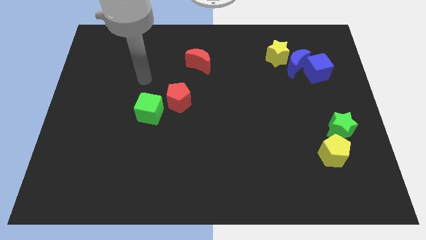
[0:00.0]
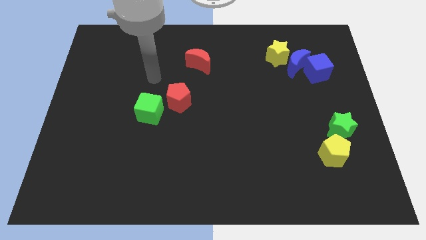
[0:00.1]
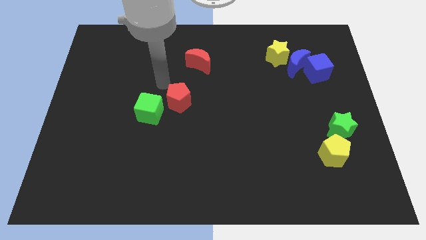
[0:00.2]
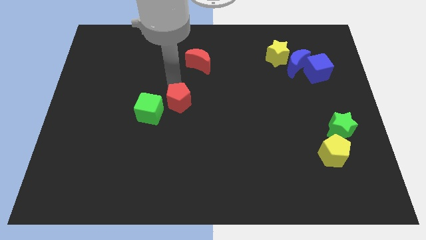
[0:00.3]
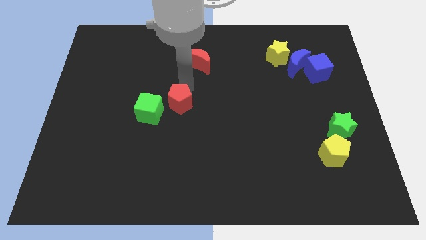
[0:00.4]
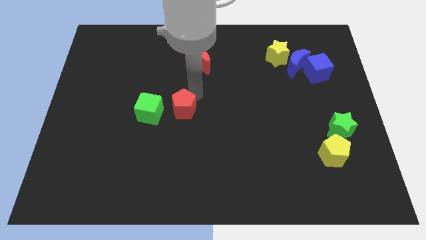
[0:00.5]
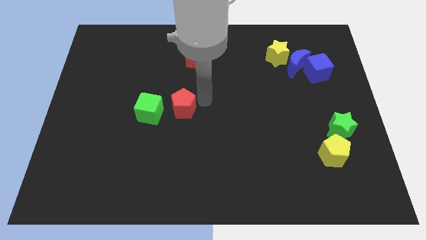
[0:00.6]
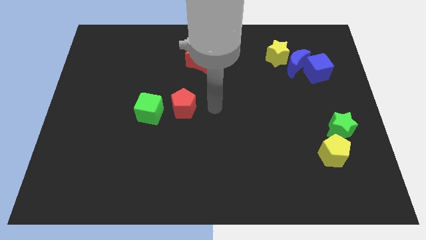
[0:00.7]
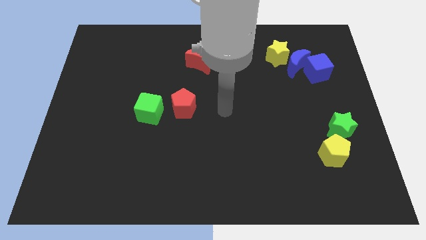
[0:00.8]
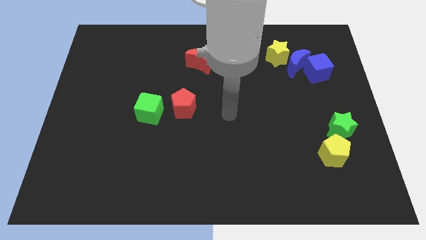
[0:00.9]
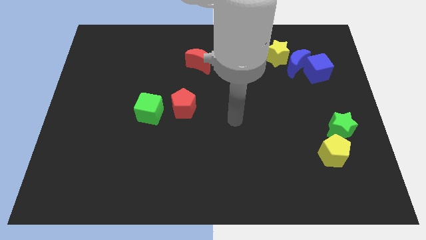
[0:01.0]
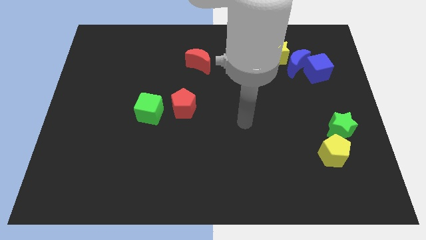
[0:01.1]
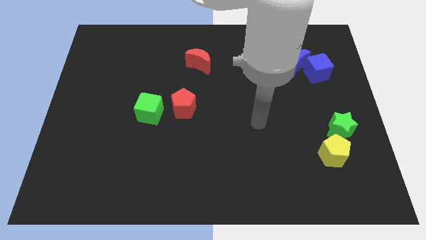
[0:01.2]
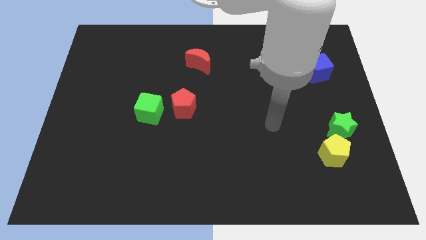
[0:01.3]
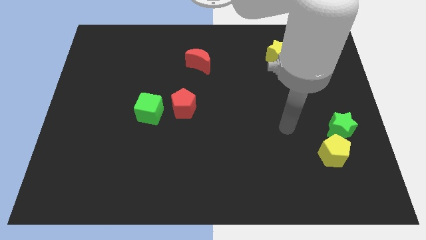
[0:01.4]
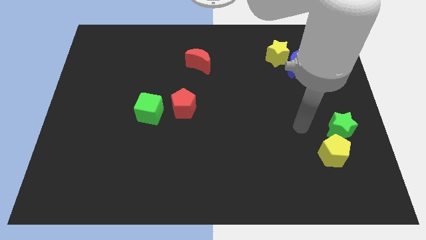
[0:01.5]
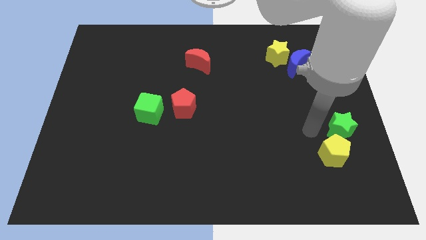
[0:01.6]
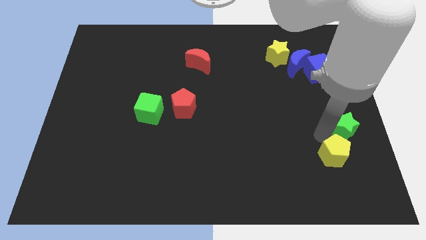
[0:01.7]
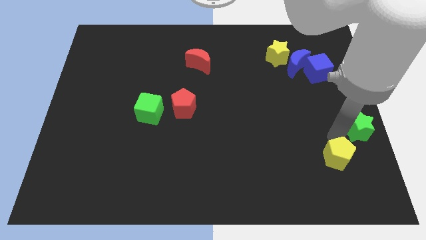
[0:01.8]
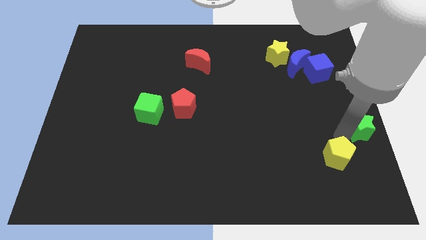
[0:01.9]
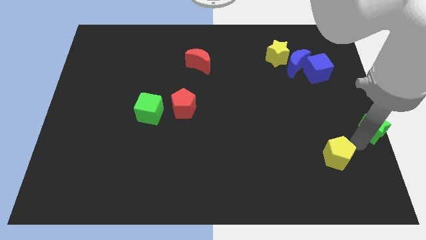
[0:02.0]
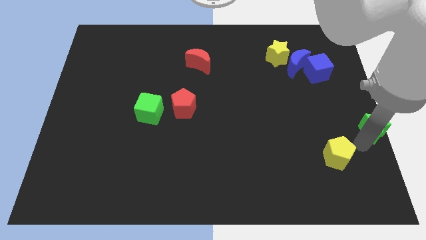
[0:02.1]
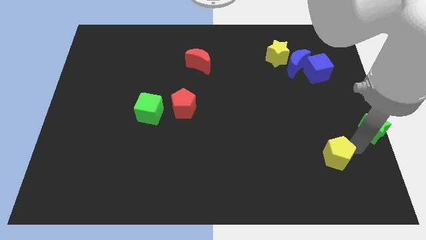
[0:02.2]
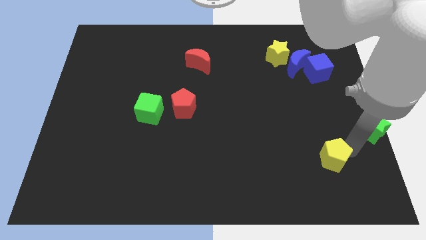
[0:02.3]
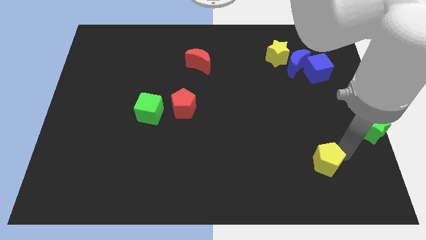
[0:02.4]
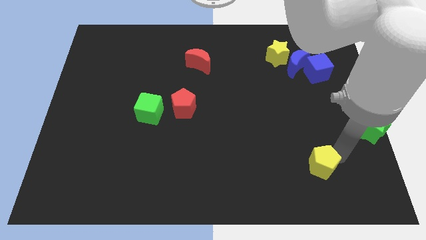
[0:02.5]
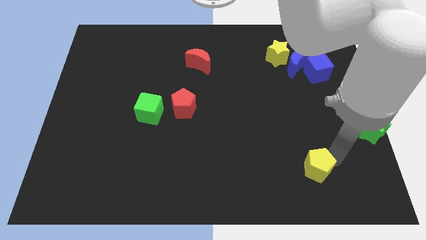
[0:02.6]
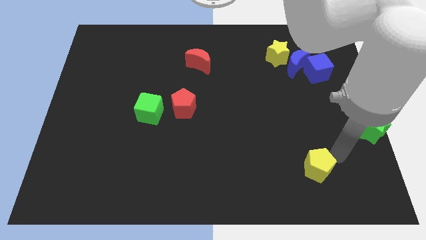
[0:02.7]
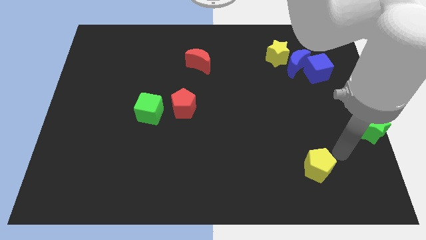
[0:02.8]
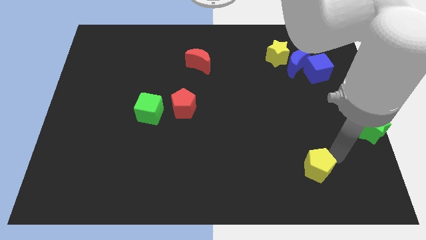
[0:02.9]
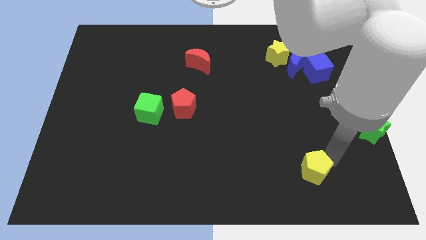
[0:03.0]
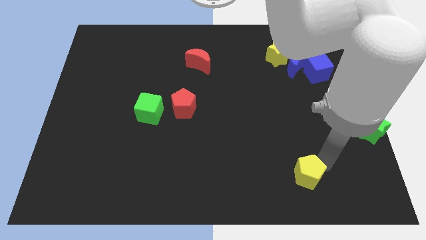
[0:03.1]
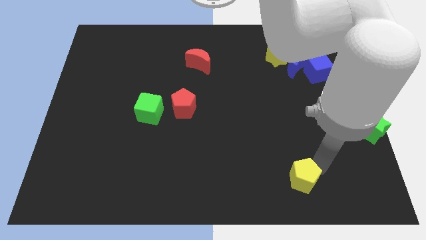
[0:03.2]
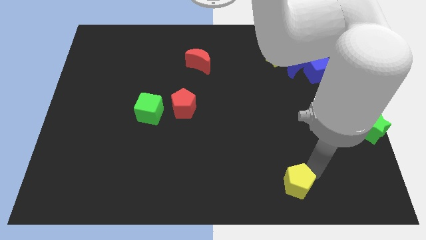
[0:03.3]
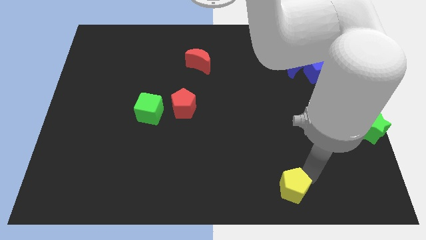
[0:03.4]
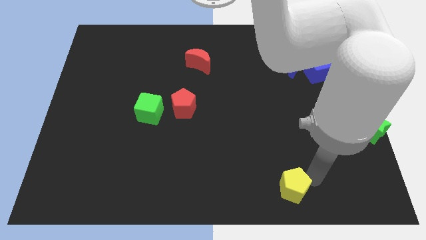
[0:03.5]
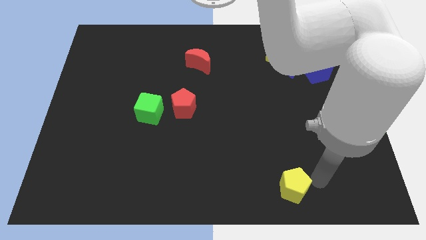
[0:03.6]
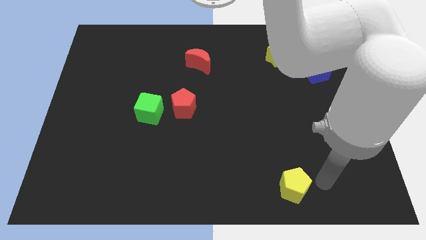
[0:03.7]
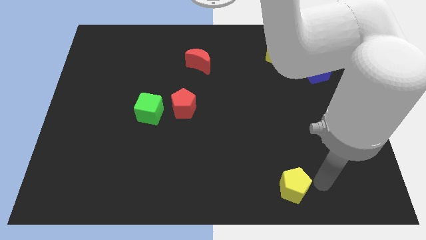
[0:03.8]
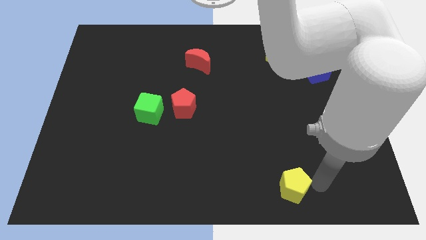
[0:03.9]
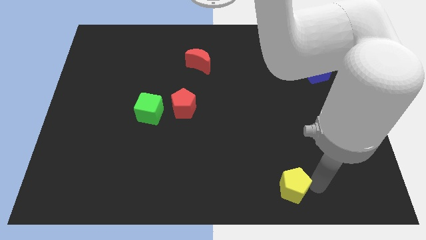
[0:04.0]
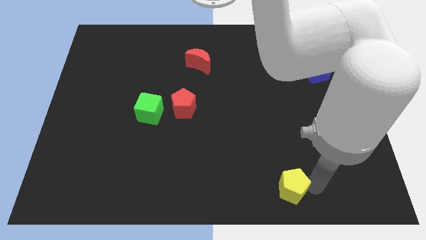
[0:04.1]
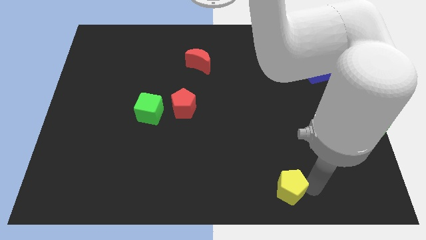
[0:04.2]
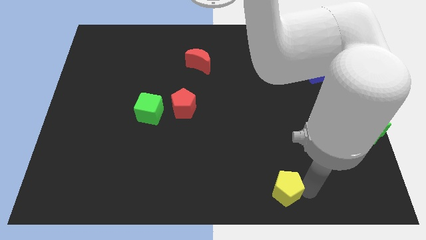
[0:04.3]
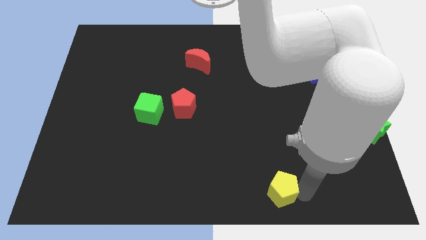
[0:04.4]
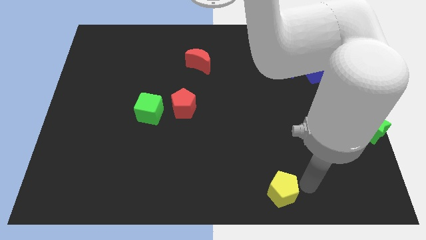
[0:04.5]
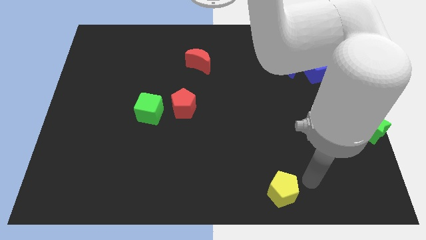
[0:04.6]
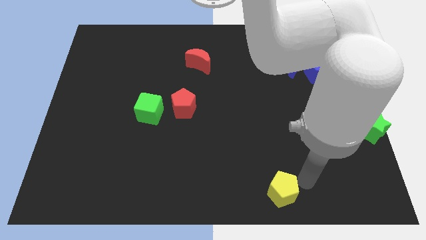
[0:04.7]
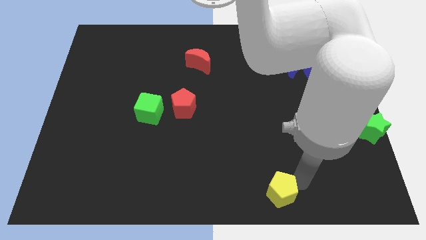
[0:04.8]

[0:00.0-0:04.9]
put the yellow pentagon to the bottom

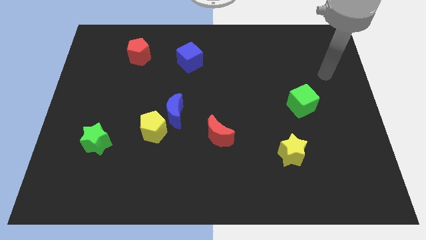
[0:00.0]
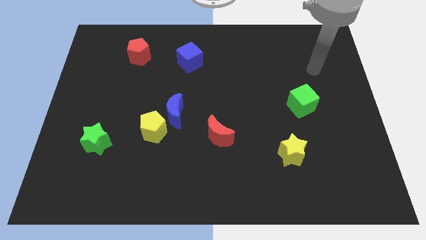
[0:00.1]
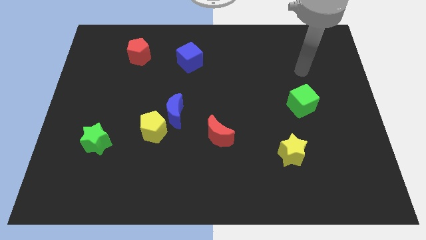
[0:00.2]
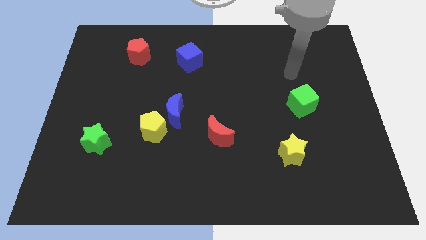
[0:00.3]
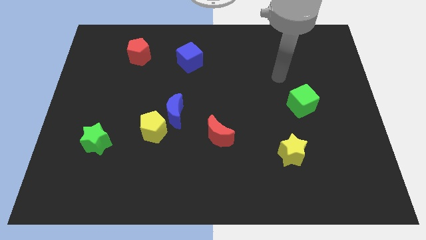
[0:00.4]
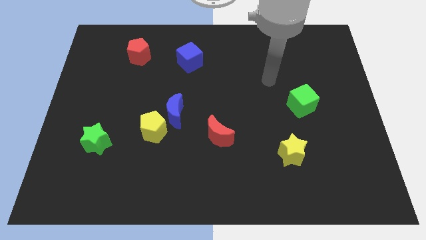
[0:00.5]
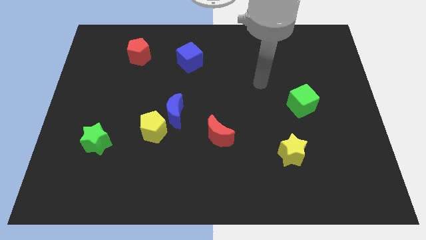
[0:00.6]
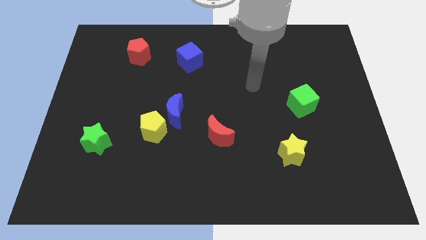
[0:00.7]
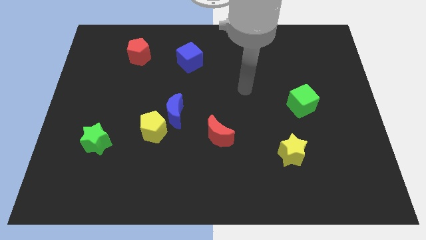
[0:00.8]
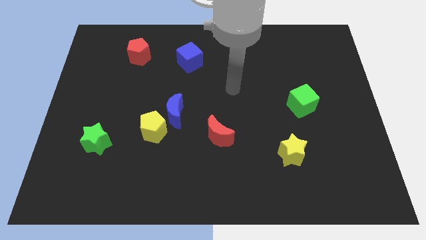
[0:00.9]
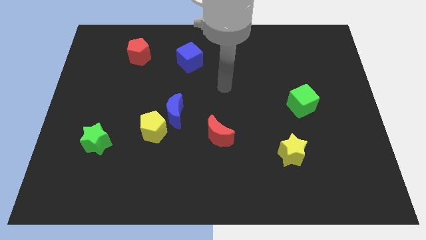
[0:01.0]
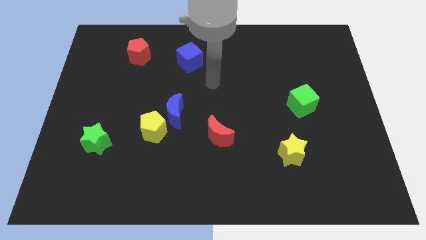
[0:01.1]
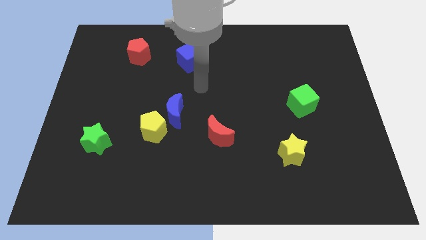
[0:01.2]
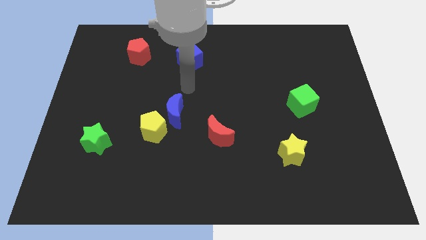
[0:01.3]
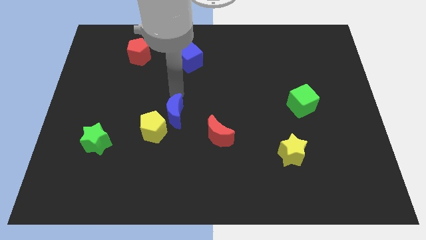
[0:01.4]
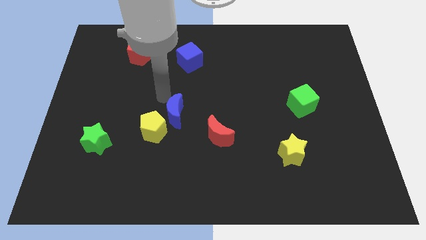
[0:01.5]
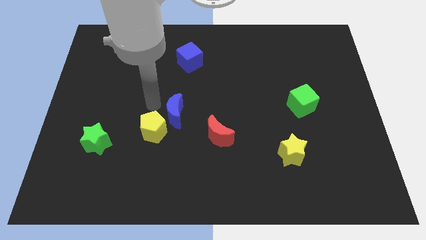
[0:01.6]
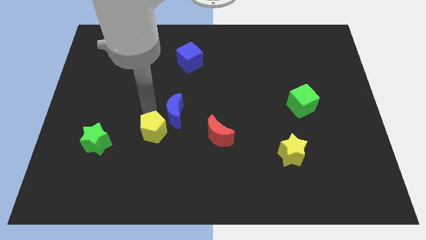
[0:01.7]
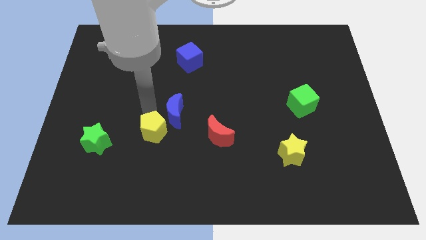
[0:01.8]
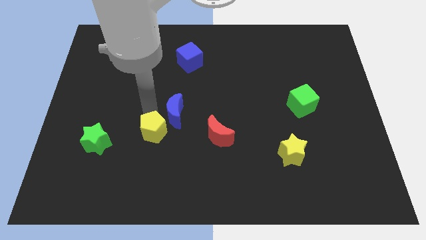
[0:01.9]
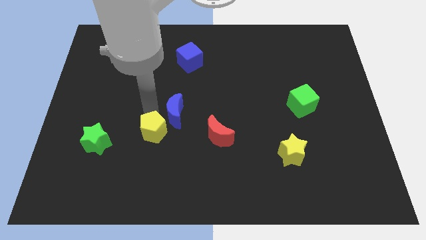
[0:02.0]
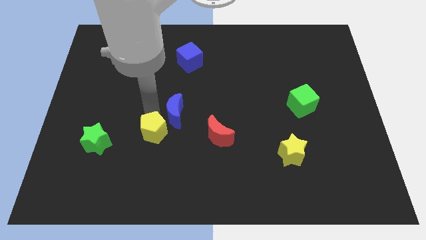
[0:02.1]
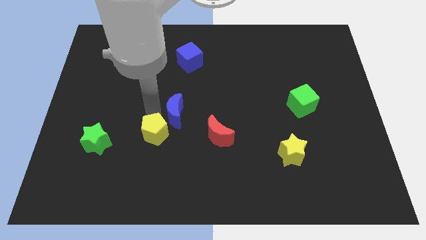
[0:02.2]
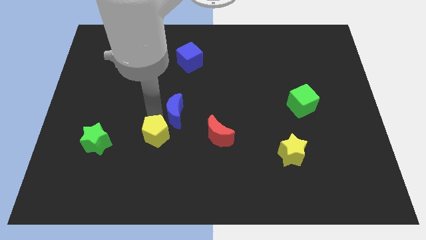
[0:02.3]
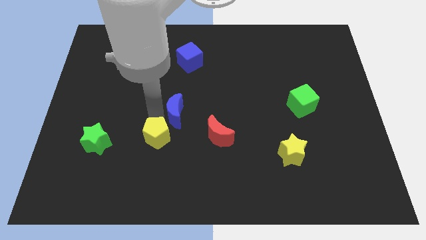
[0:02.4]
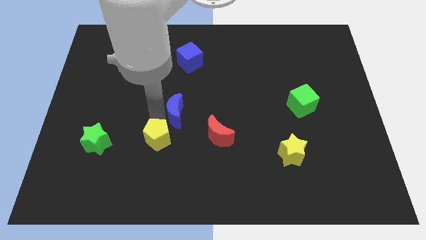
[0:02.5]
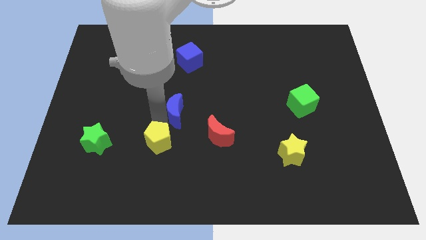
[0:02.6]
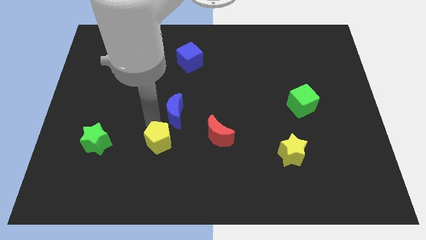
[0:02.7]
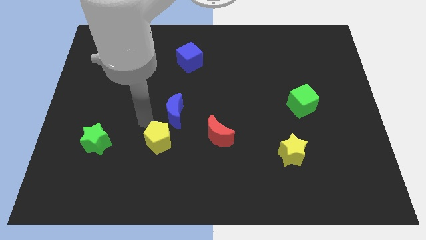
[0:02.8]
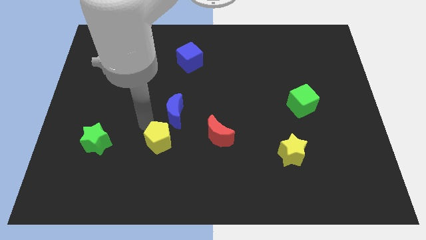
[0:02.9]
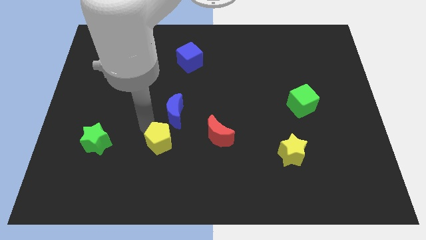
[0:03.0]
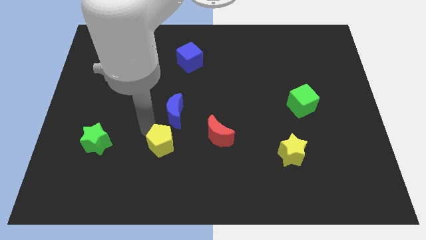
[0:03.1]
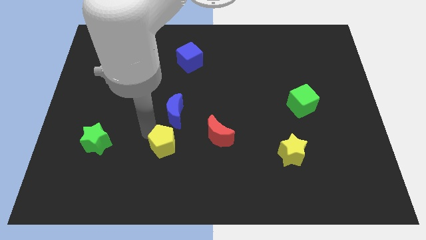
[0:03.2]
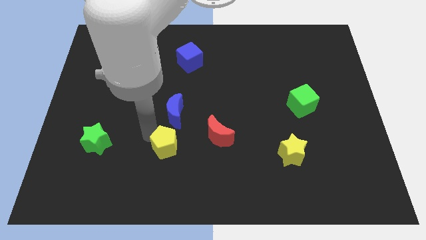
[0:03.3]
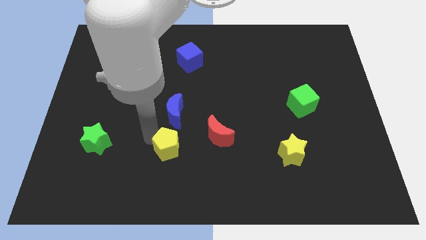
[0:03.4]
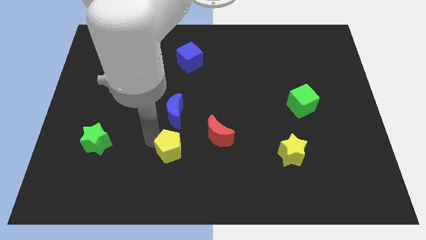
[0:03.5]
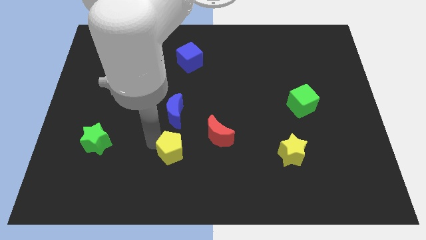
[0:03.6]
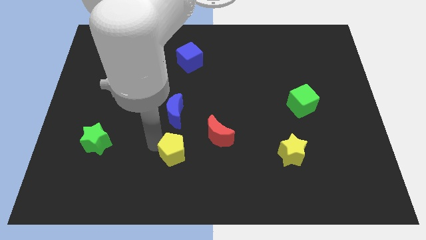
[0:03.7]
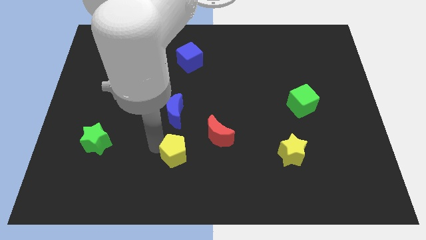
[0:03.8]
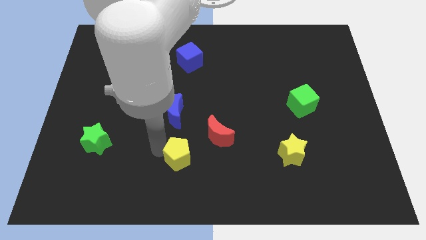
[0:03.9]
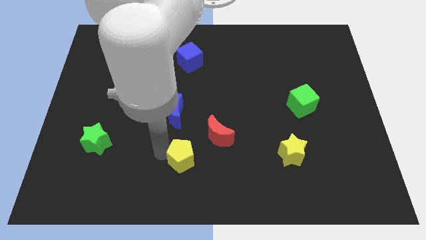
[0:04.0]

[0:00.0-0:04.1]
put the yellow pentagon to the bottom side
